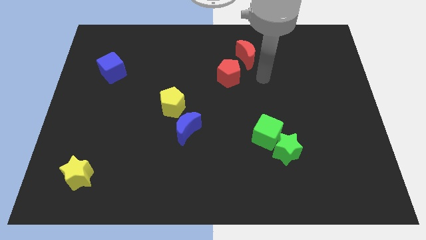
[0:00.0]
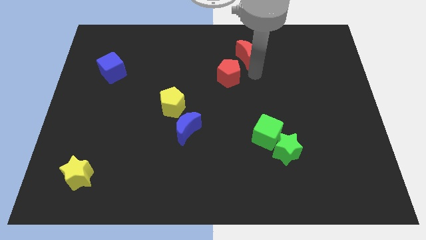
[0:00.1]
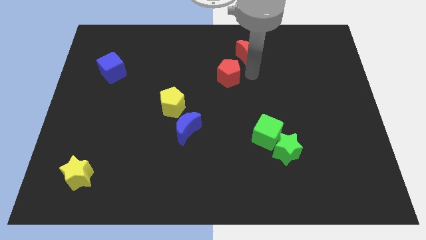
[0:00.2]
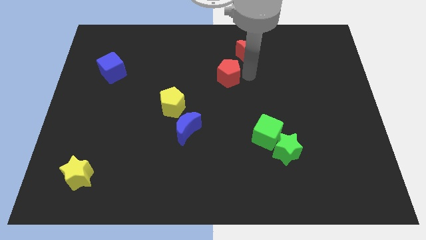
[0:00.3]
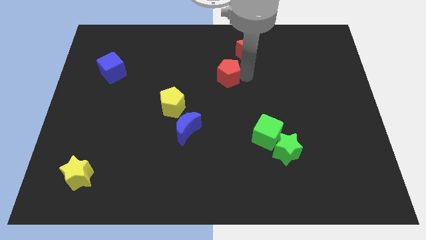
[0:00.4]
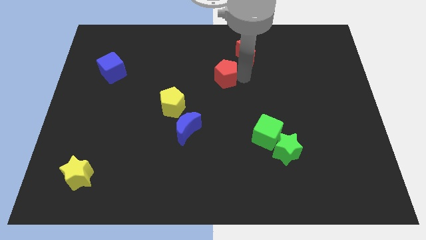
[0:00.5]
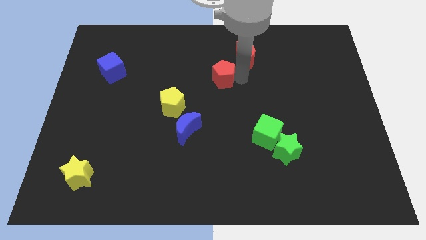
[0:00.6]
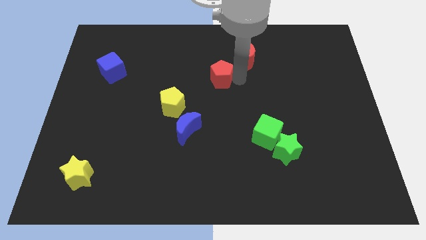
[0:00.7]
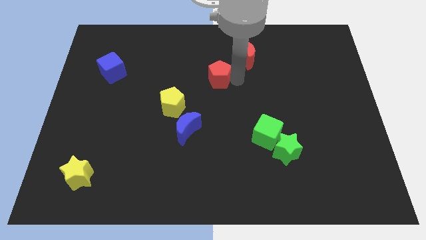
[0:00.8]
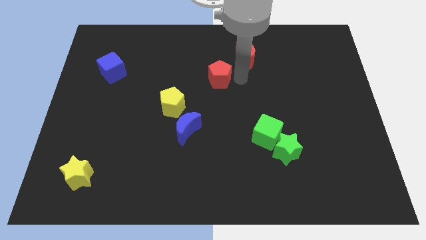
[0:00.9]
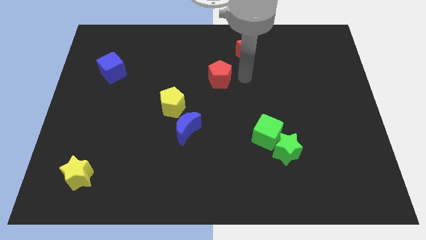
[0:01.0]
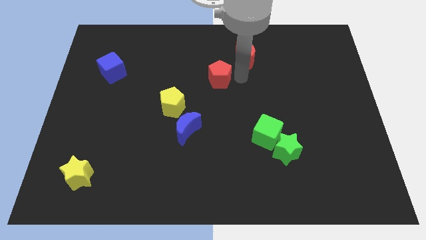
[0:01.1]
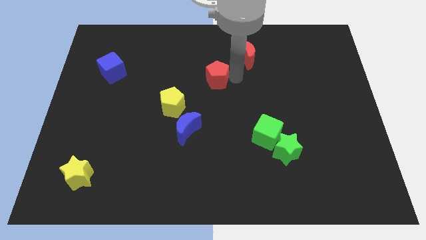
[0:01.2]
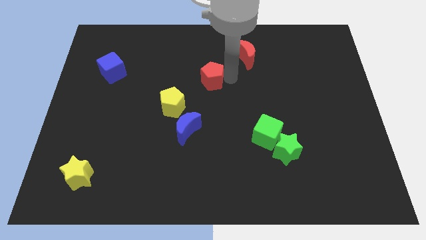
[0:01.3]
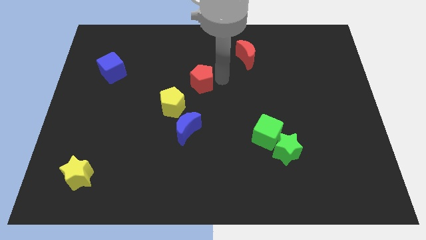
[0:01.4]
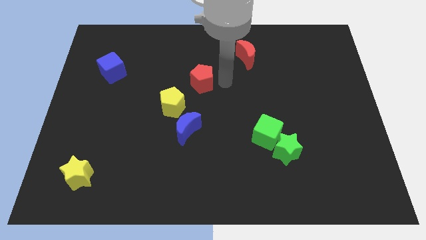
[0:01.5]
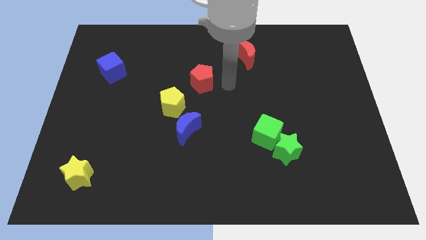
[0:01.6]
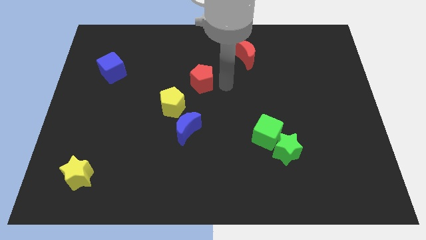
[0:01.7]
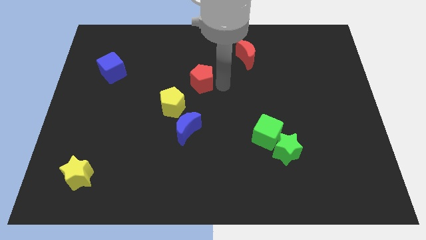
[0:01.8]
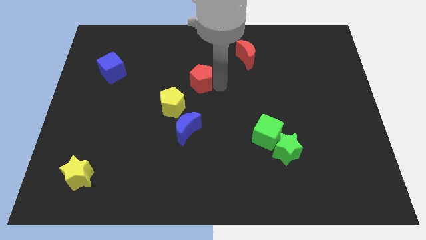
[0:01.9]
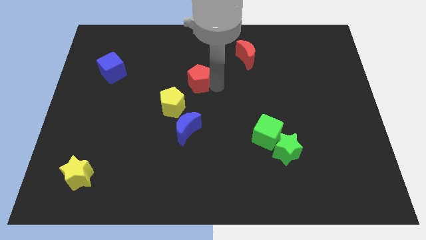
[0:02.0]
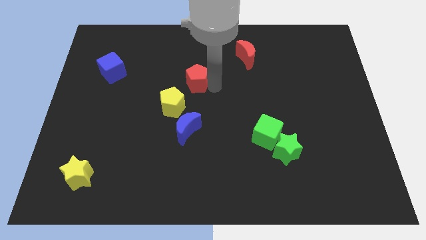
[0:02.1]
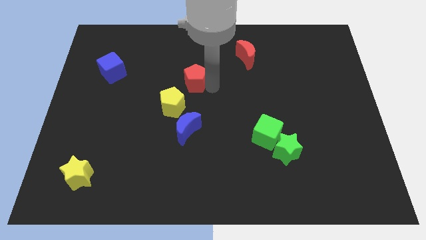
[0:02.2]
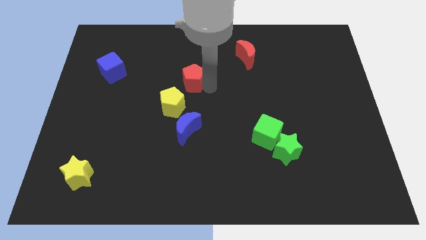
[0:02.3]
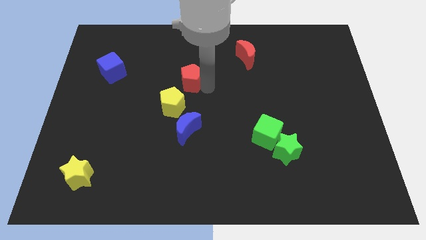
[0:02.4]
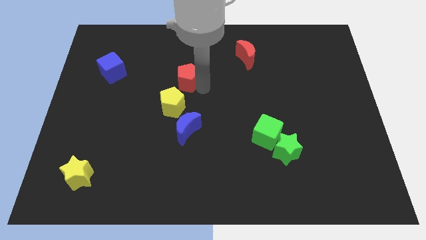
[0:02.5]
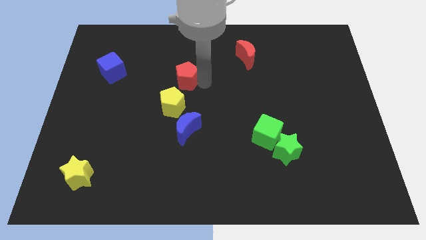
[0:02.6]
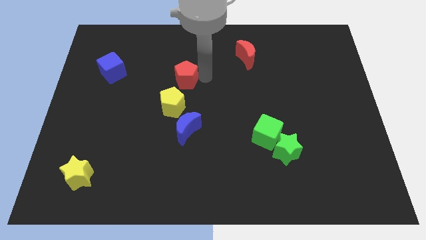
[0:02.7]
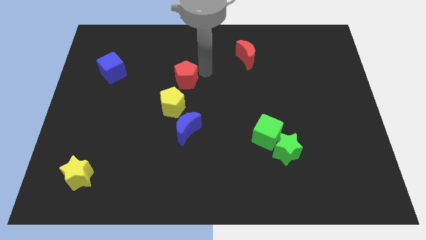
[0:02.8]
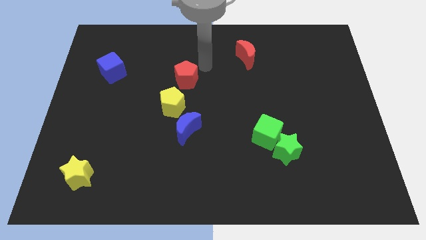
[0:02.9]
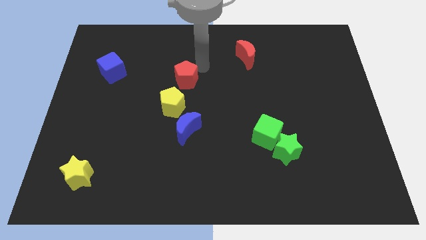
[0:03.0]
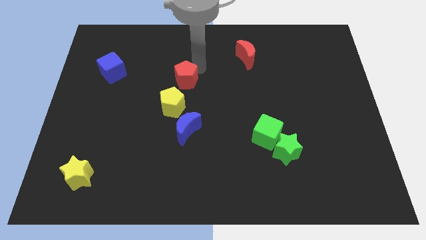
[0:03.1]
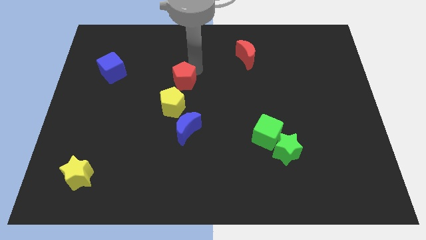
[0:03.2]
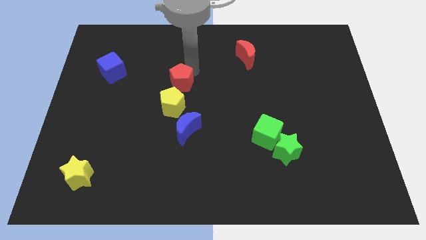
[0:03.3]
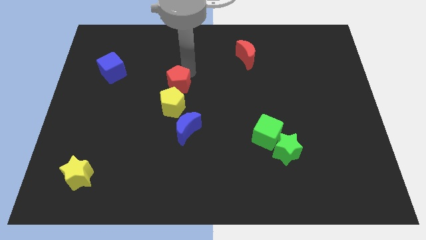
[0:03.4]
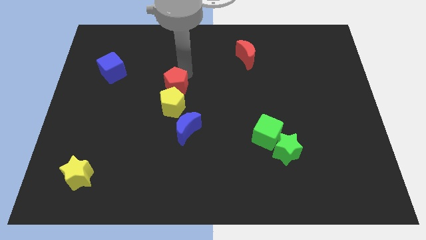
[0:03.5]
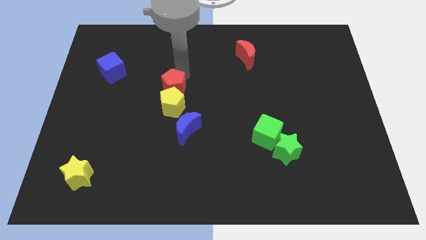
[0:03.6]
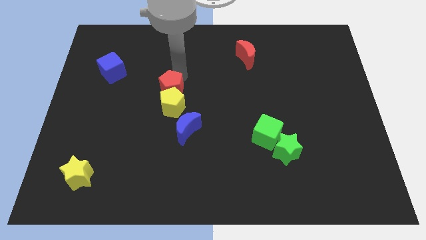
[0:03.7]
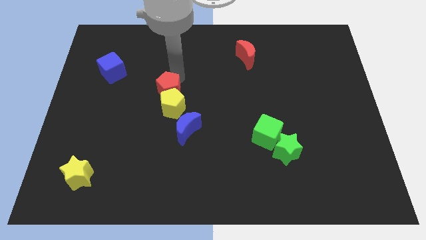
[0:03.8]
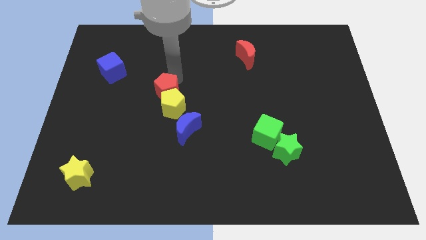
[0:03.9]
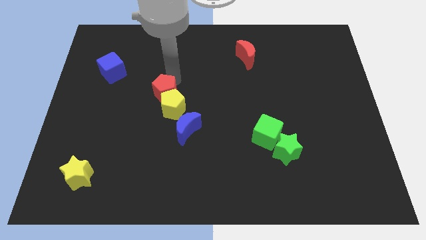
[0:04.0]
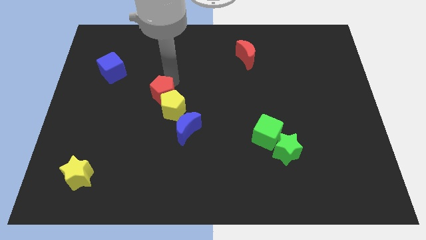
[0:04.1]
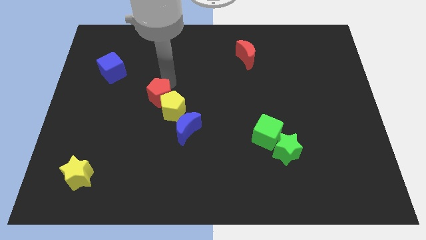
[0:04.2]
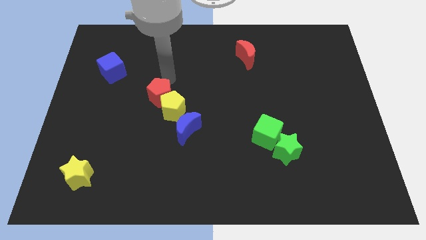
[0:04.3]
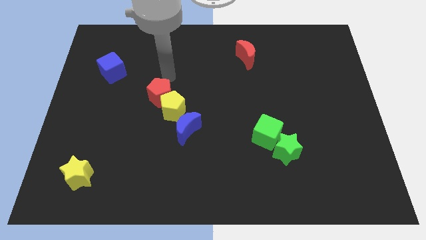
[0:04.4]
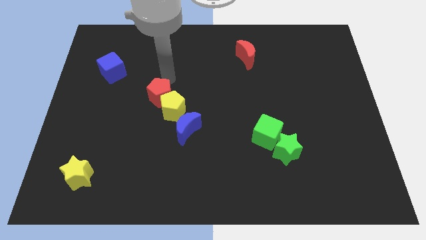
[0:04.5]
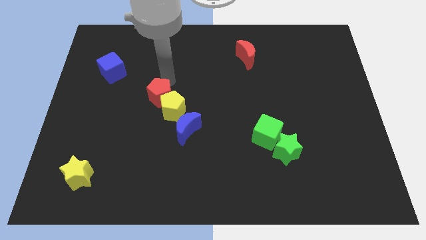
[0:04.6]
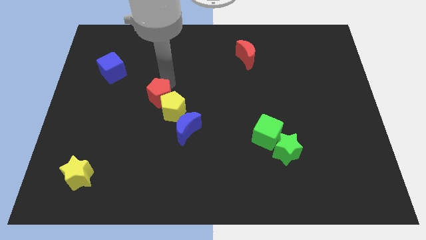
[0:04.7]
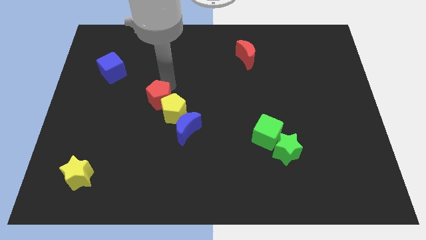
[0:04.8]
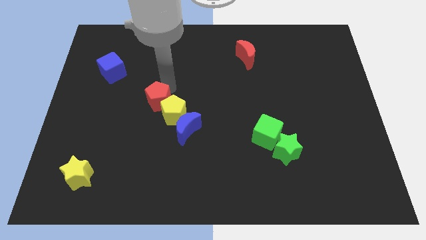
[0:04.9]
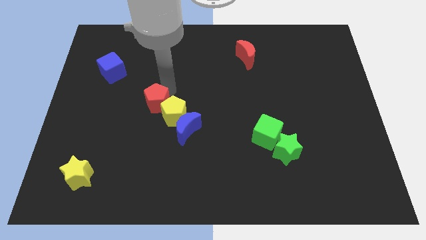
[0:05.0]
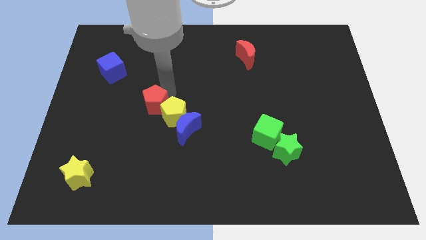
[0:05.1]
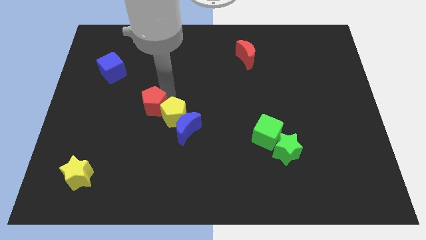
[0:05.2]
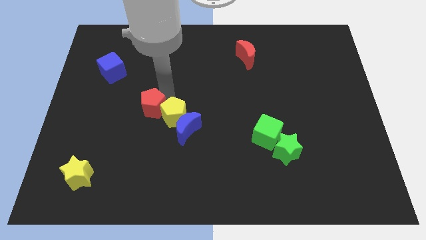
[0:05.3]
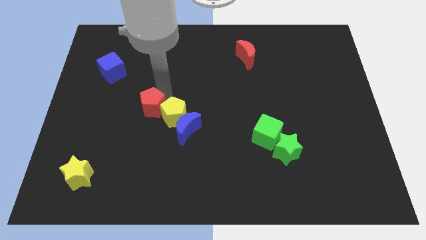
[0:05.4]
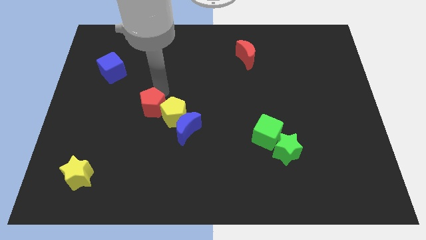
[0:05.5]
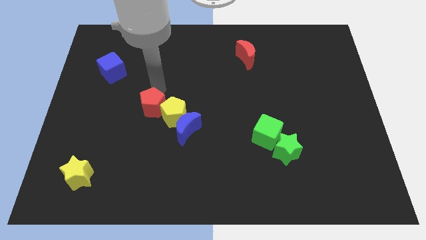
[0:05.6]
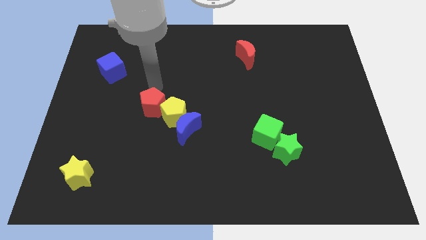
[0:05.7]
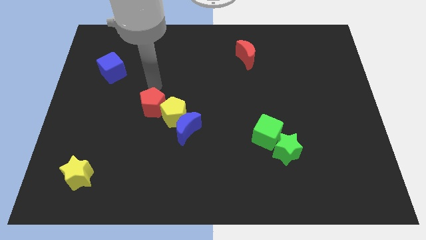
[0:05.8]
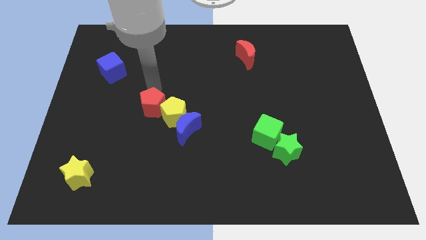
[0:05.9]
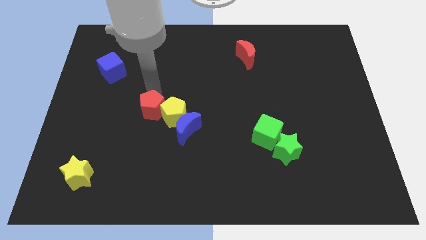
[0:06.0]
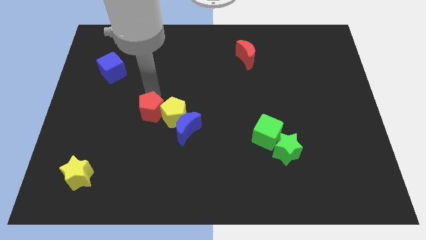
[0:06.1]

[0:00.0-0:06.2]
slide the red pentagon downwards and then to the left

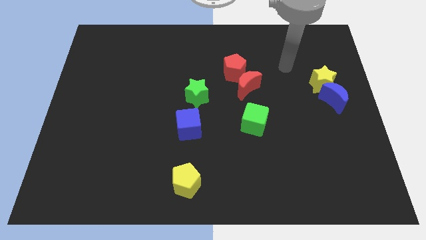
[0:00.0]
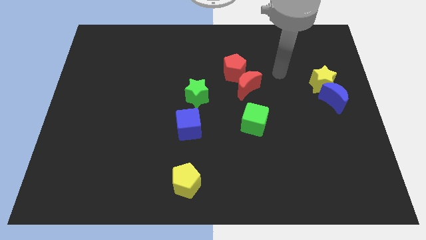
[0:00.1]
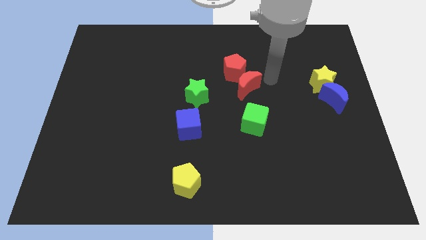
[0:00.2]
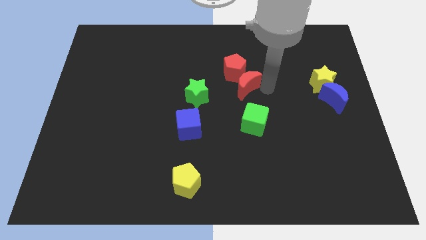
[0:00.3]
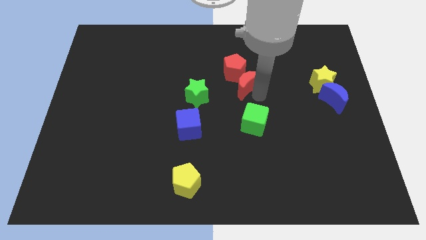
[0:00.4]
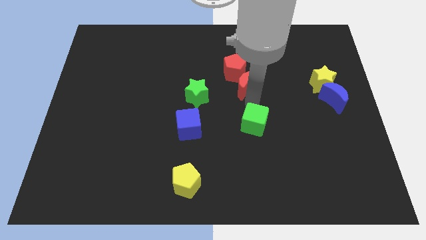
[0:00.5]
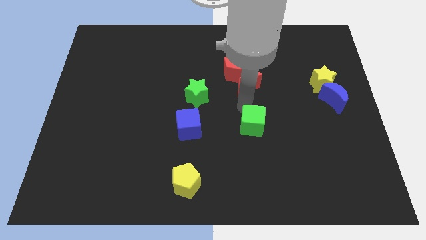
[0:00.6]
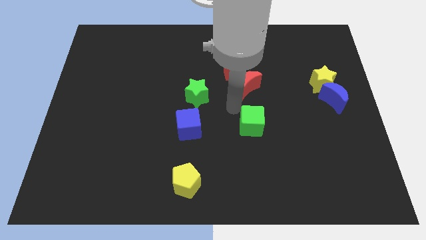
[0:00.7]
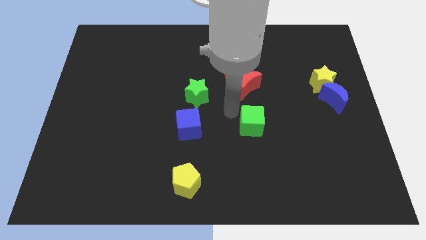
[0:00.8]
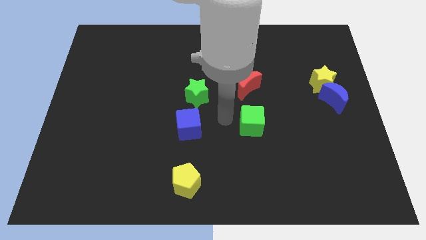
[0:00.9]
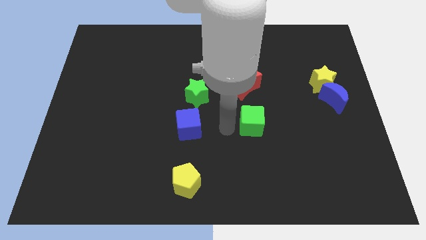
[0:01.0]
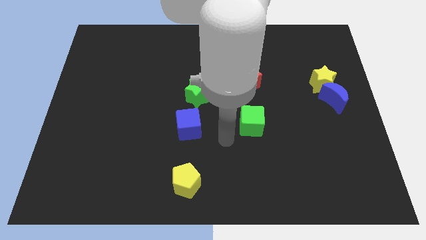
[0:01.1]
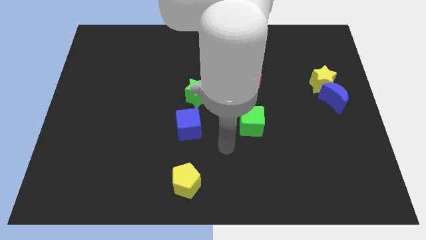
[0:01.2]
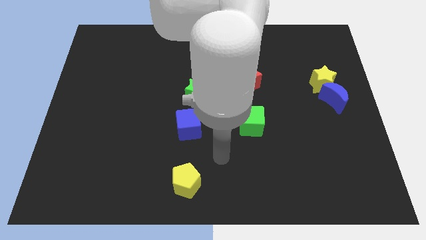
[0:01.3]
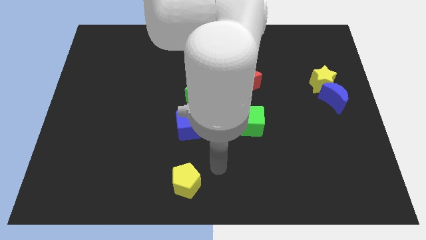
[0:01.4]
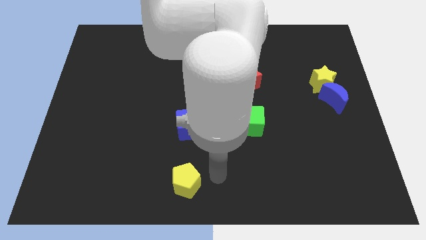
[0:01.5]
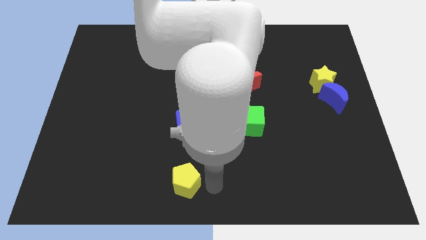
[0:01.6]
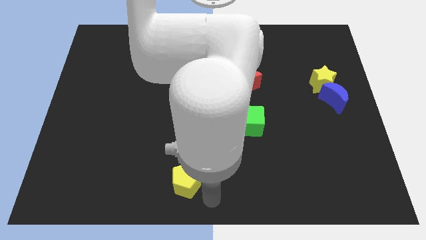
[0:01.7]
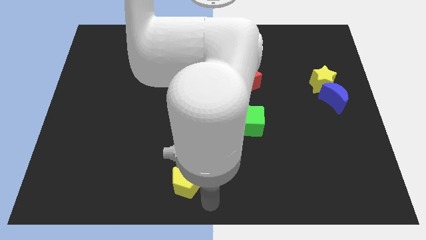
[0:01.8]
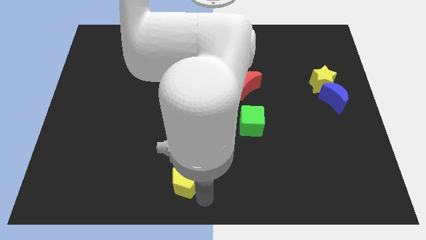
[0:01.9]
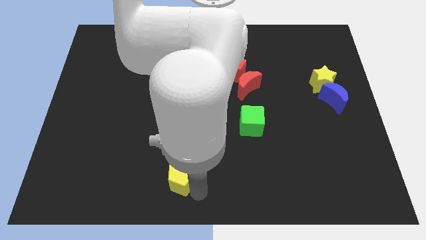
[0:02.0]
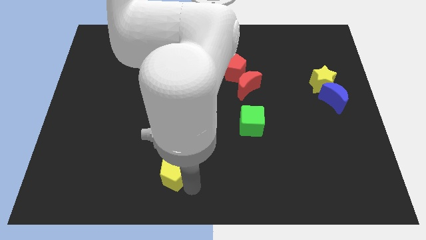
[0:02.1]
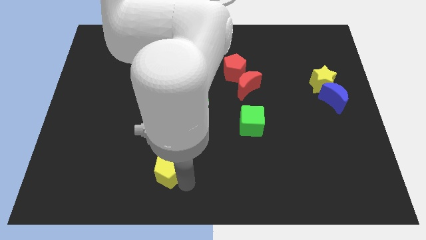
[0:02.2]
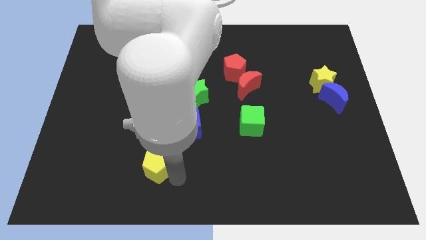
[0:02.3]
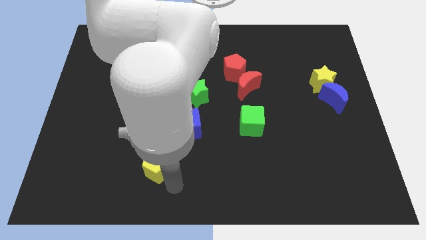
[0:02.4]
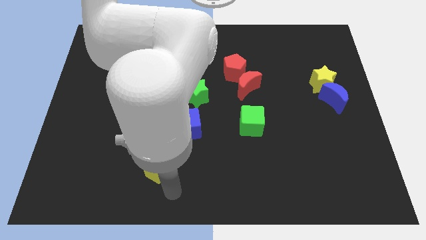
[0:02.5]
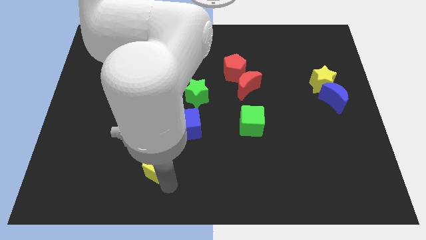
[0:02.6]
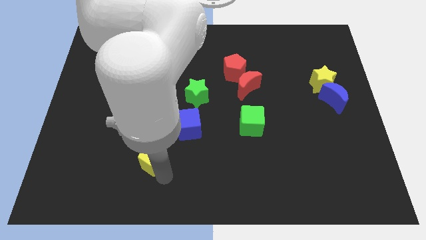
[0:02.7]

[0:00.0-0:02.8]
move the yellow pentagon slightly upwards and left
